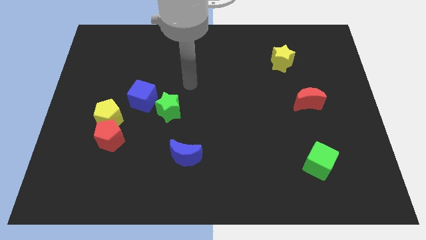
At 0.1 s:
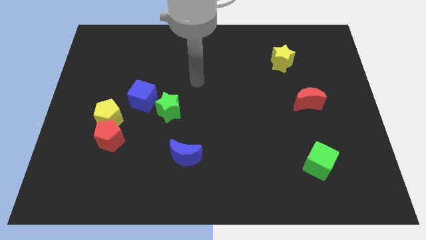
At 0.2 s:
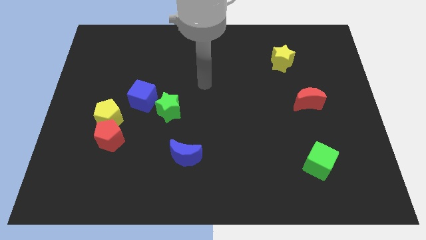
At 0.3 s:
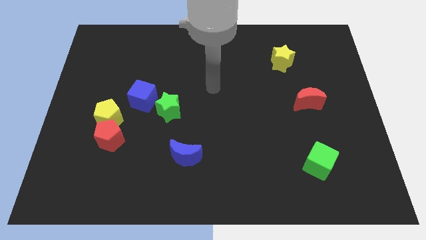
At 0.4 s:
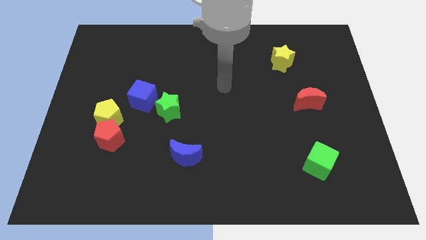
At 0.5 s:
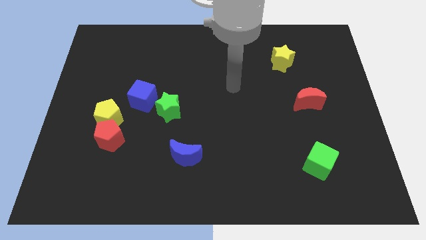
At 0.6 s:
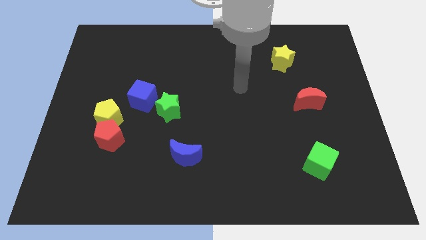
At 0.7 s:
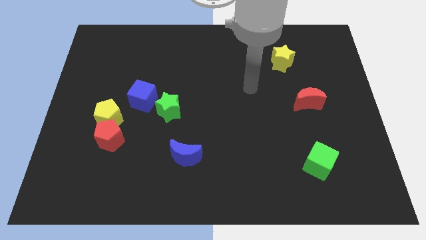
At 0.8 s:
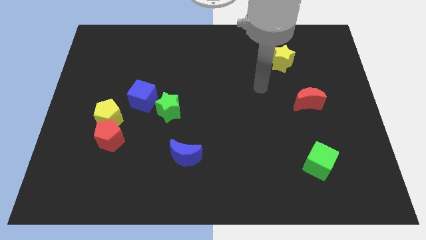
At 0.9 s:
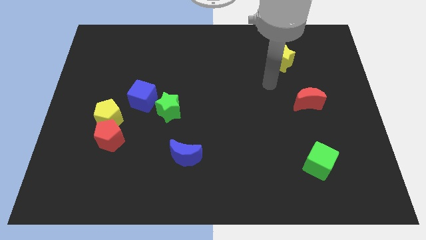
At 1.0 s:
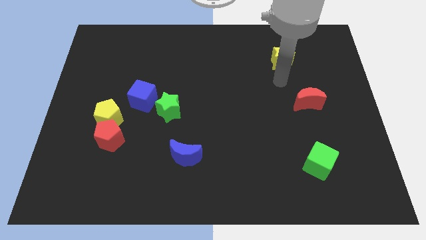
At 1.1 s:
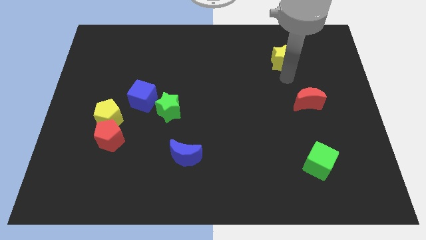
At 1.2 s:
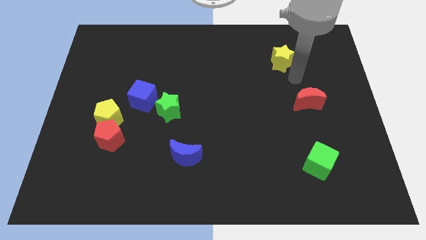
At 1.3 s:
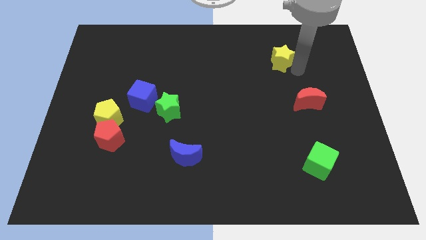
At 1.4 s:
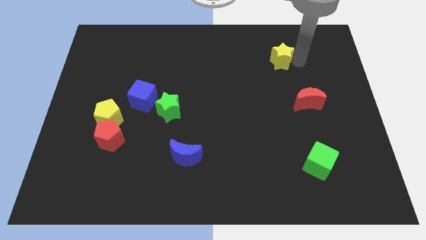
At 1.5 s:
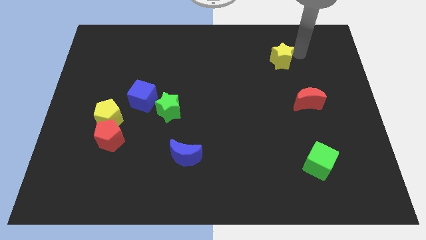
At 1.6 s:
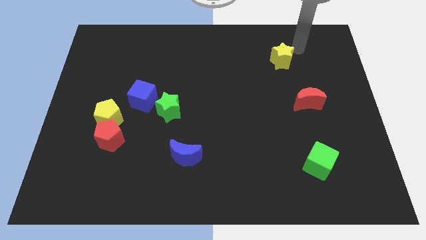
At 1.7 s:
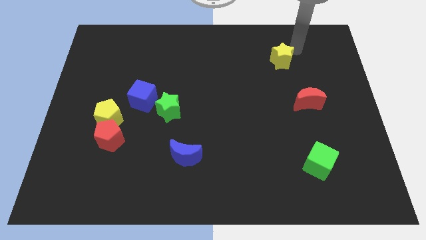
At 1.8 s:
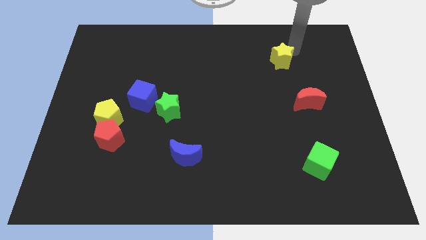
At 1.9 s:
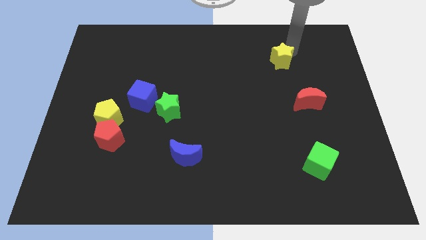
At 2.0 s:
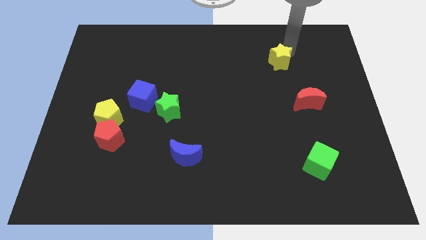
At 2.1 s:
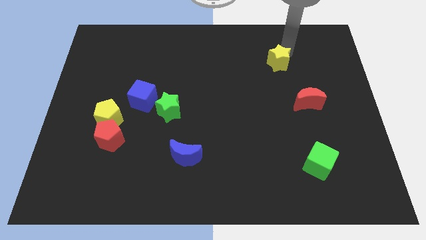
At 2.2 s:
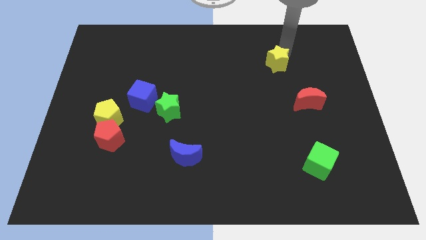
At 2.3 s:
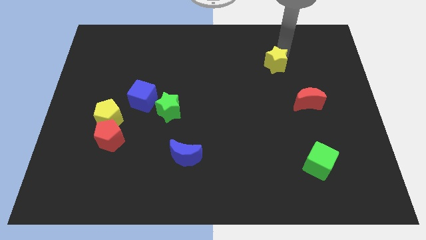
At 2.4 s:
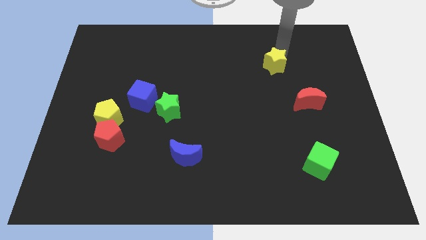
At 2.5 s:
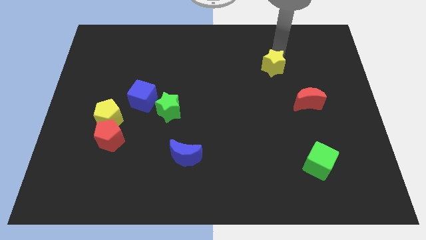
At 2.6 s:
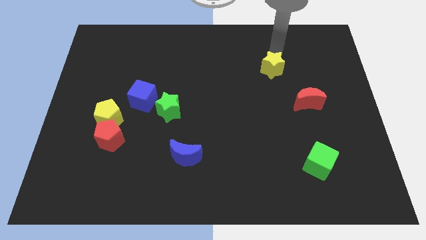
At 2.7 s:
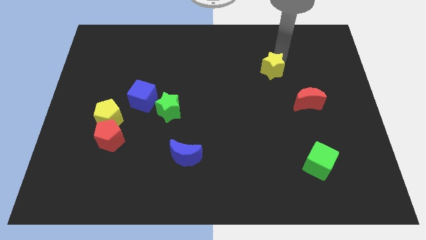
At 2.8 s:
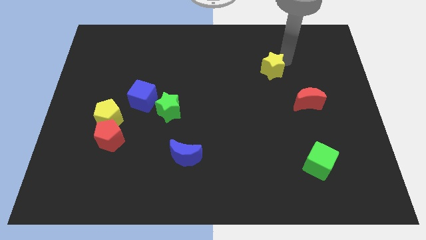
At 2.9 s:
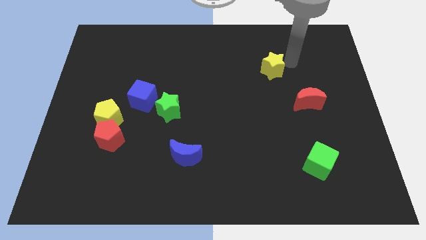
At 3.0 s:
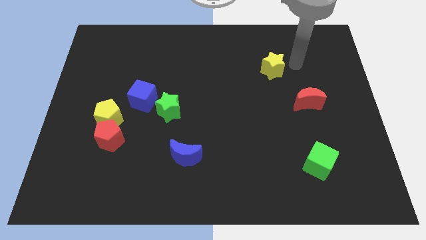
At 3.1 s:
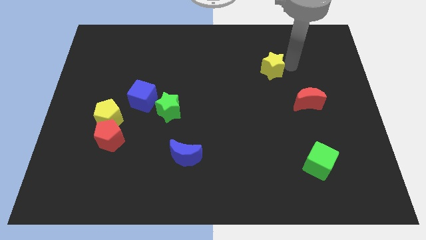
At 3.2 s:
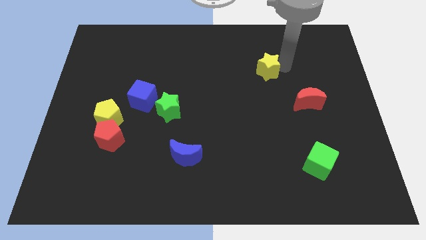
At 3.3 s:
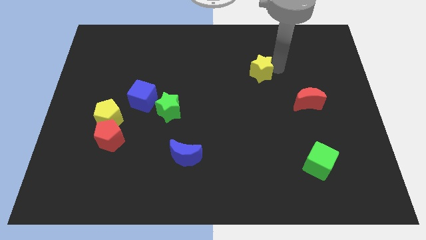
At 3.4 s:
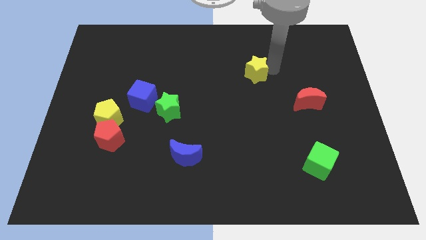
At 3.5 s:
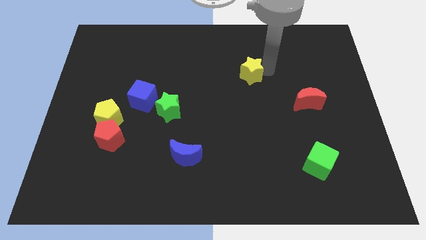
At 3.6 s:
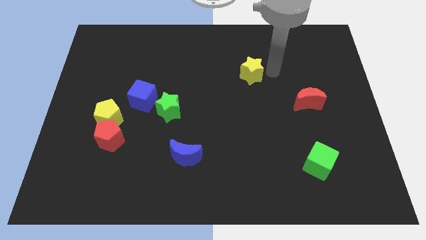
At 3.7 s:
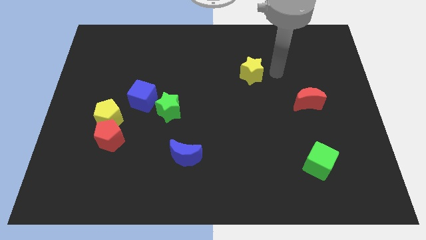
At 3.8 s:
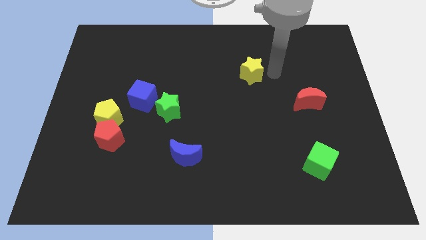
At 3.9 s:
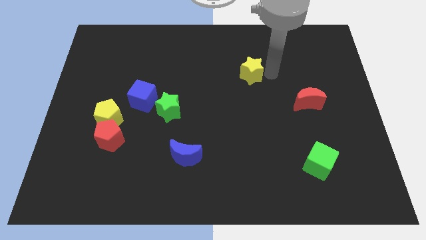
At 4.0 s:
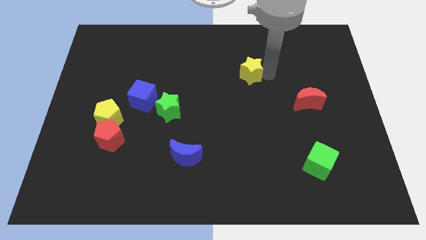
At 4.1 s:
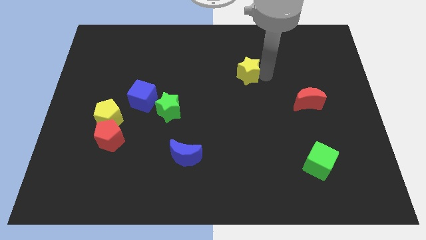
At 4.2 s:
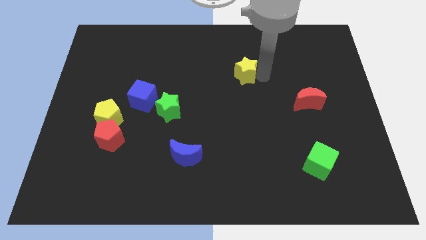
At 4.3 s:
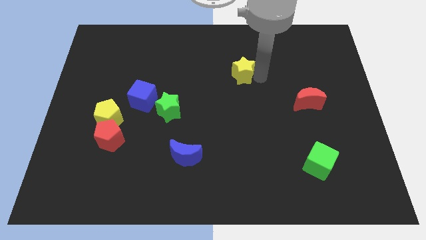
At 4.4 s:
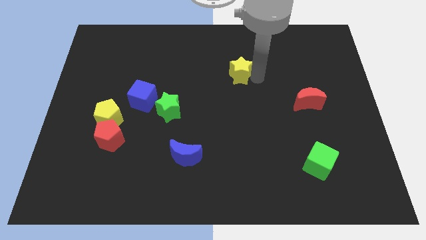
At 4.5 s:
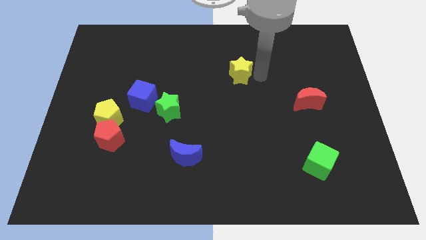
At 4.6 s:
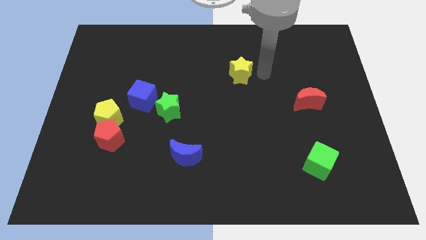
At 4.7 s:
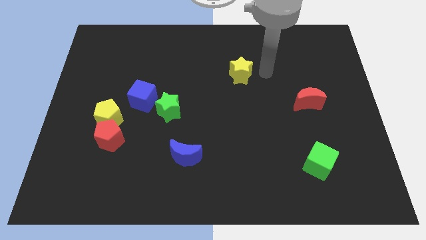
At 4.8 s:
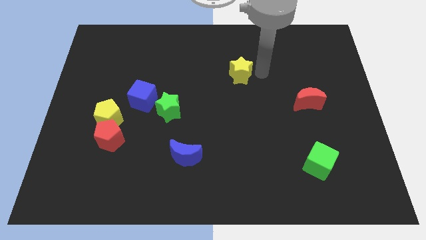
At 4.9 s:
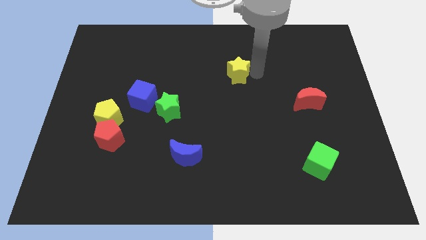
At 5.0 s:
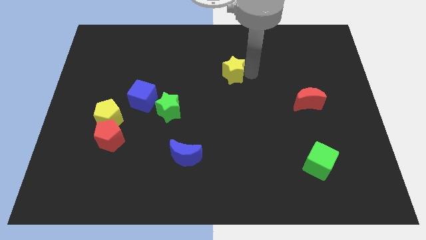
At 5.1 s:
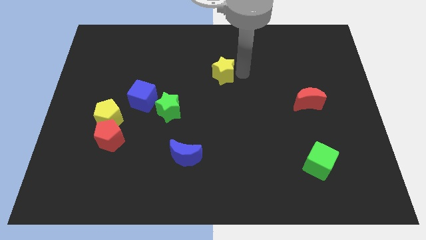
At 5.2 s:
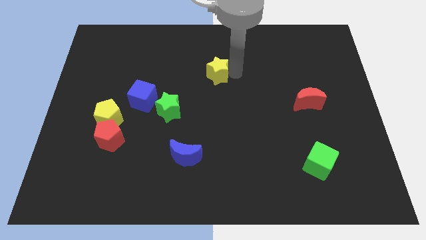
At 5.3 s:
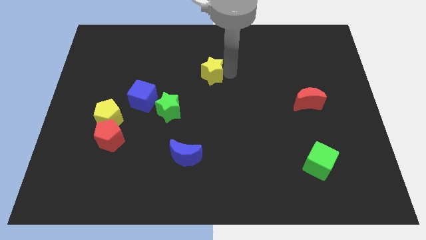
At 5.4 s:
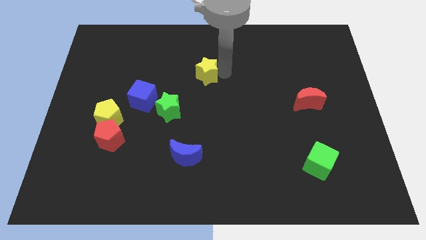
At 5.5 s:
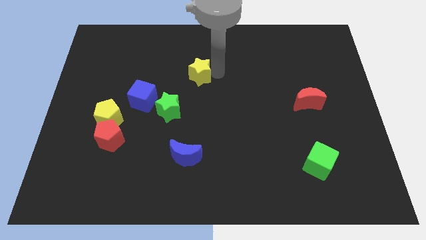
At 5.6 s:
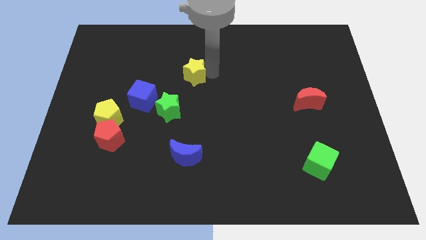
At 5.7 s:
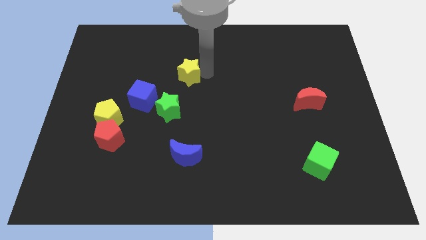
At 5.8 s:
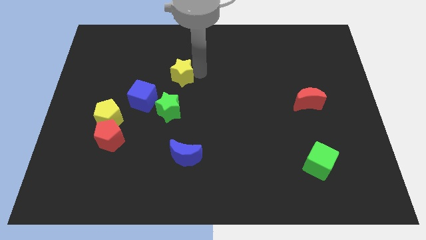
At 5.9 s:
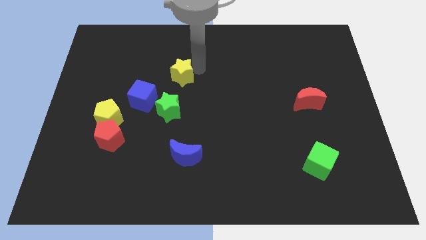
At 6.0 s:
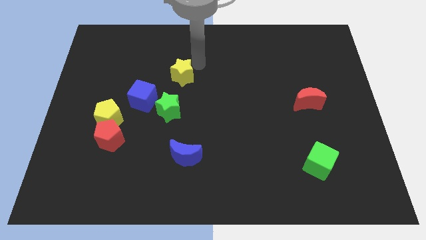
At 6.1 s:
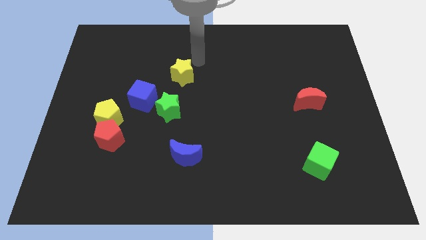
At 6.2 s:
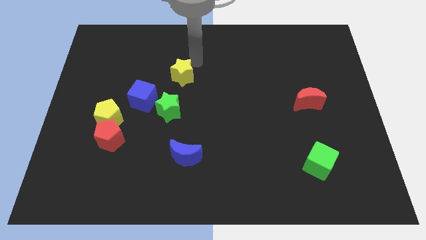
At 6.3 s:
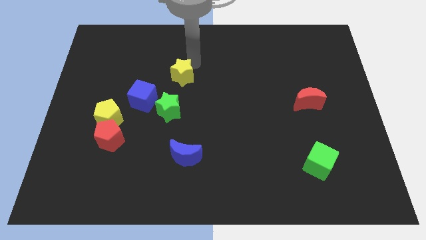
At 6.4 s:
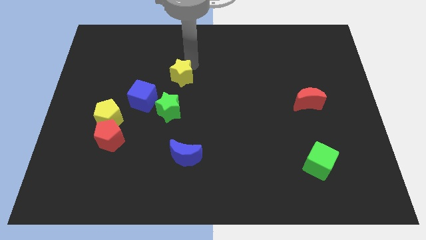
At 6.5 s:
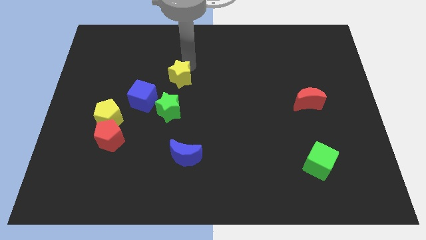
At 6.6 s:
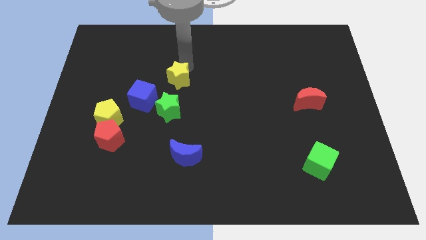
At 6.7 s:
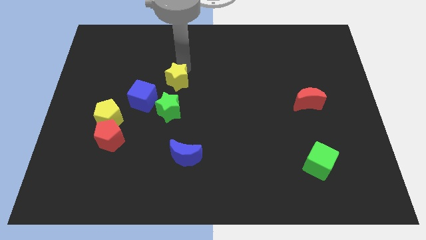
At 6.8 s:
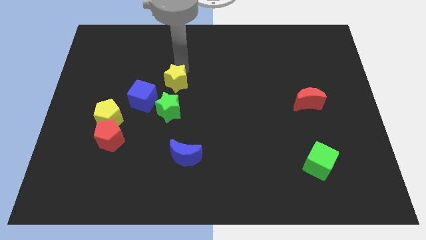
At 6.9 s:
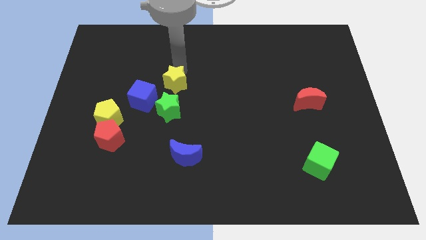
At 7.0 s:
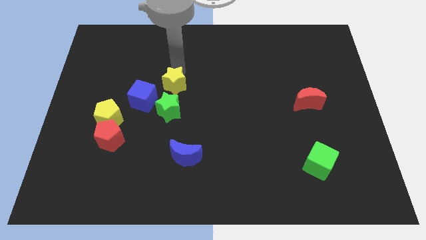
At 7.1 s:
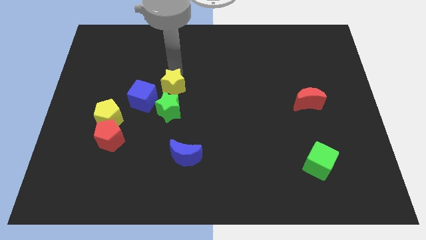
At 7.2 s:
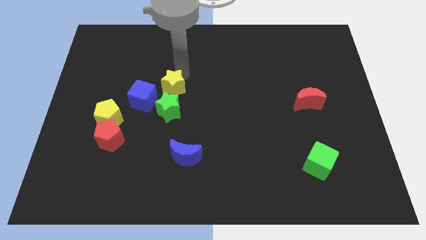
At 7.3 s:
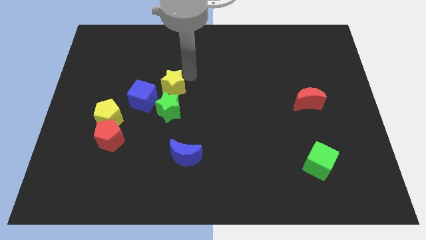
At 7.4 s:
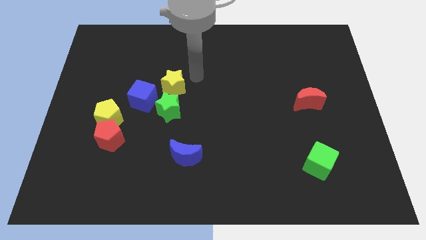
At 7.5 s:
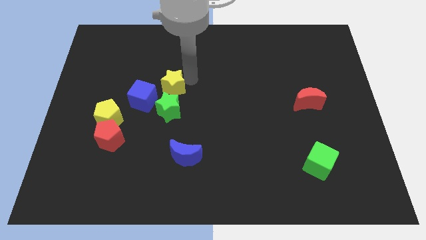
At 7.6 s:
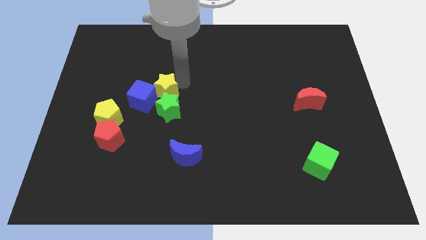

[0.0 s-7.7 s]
move the yellow star next to the blue cube

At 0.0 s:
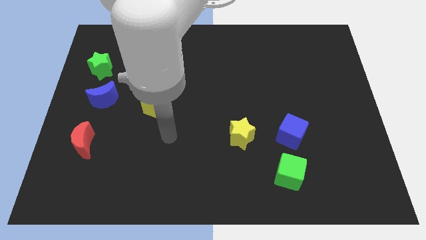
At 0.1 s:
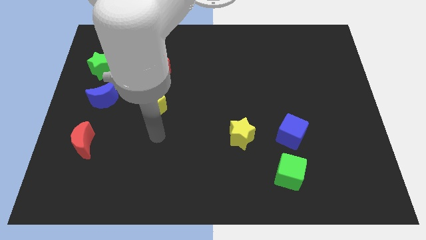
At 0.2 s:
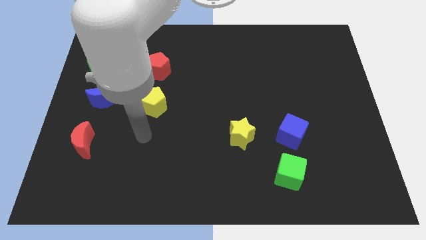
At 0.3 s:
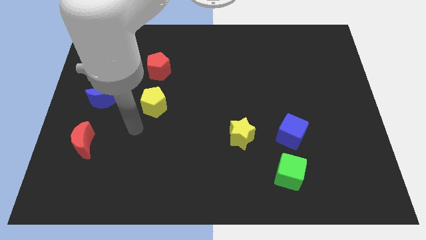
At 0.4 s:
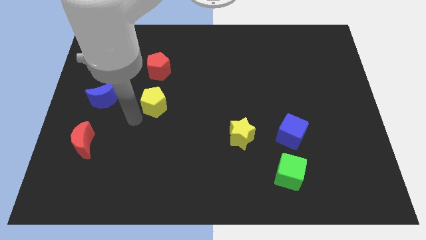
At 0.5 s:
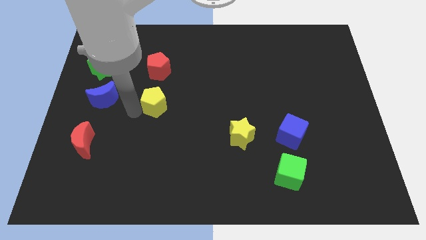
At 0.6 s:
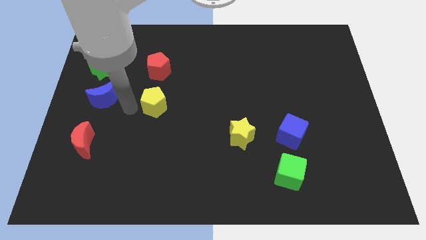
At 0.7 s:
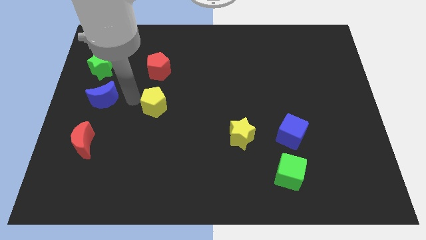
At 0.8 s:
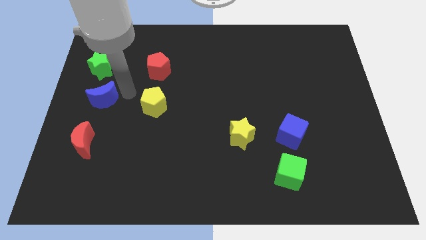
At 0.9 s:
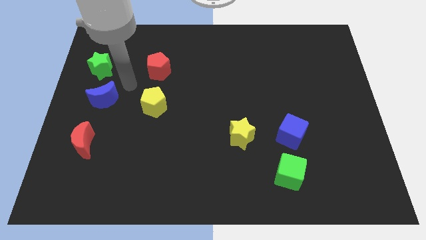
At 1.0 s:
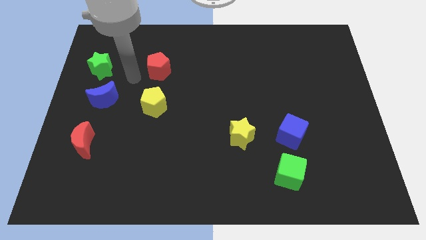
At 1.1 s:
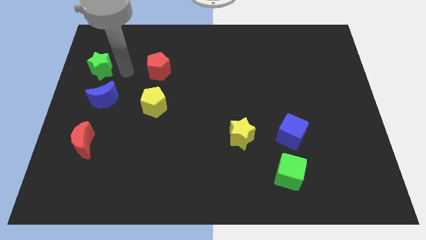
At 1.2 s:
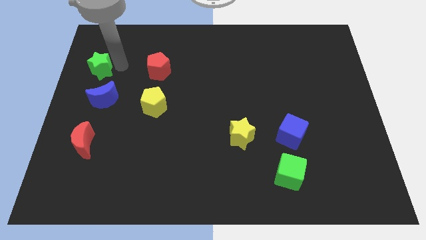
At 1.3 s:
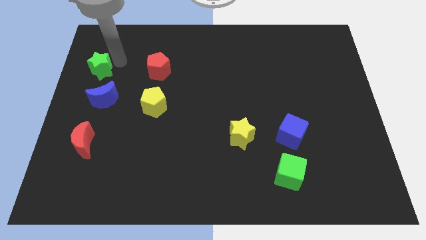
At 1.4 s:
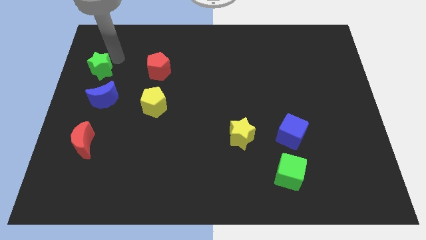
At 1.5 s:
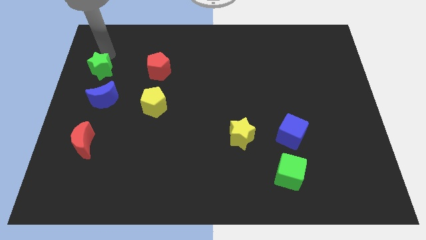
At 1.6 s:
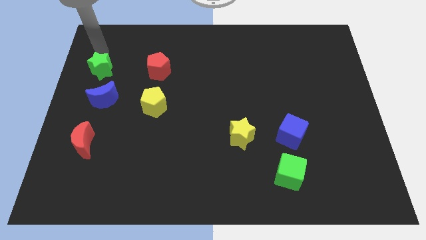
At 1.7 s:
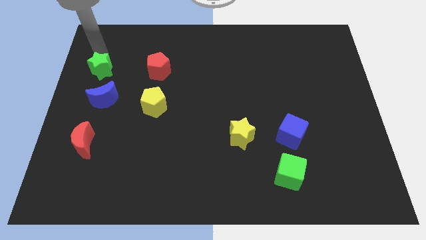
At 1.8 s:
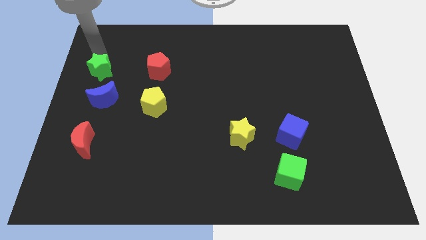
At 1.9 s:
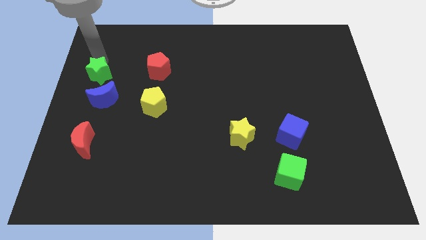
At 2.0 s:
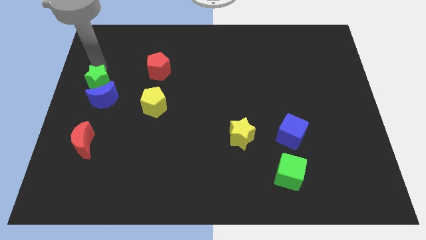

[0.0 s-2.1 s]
slide the green star next to the blue moon
